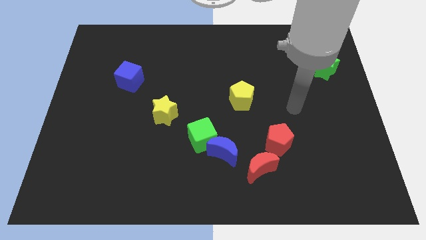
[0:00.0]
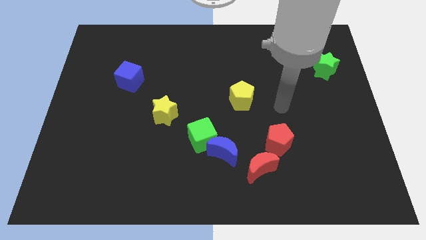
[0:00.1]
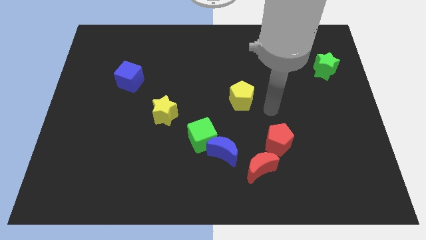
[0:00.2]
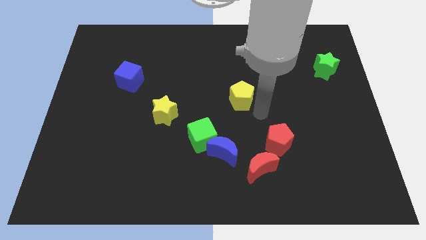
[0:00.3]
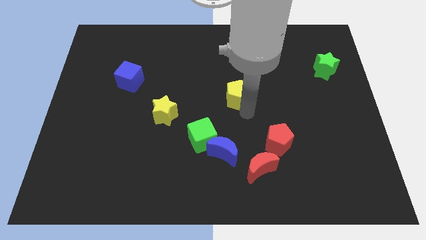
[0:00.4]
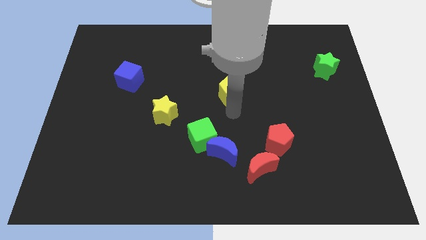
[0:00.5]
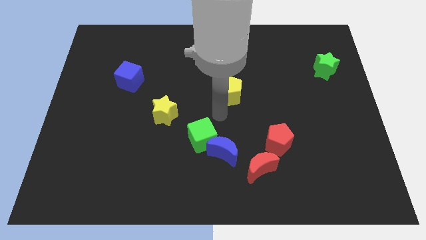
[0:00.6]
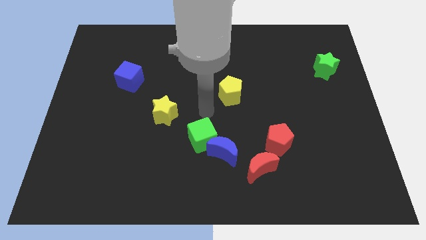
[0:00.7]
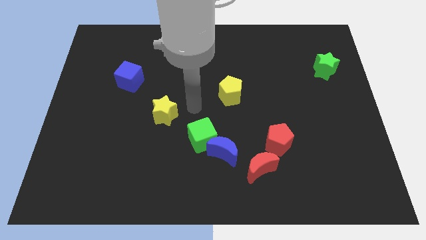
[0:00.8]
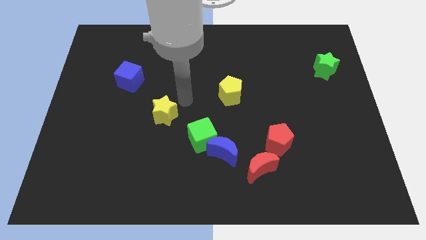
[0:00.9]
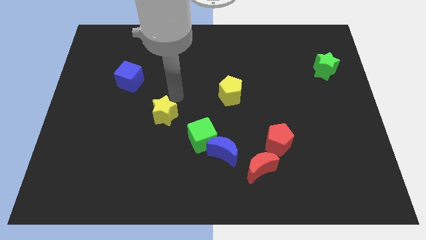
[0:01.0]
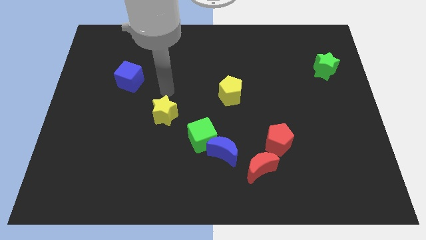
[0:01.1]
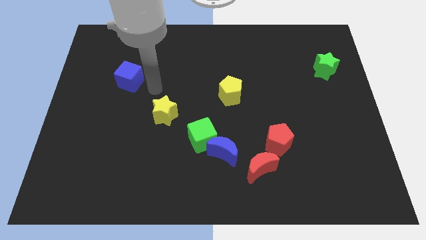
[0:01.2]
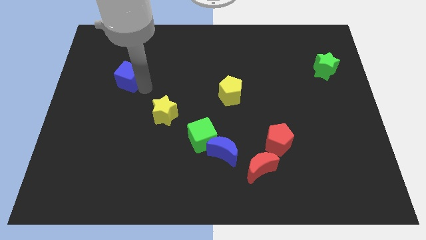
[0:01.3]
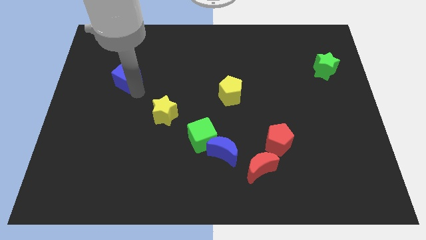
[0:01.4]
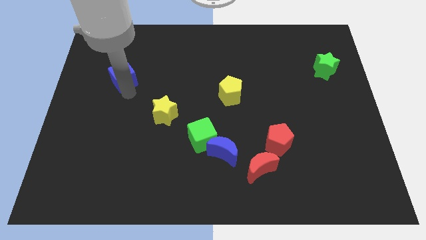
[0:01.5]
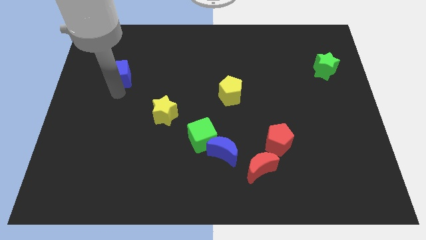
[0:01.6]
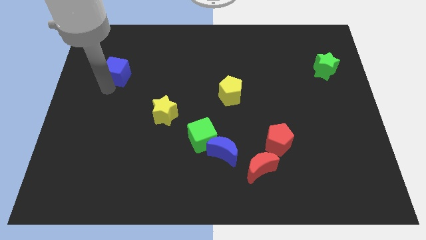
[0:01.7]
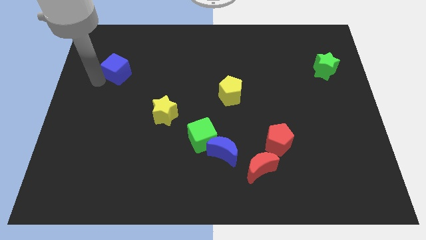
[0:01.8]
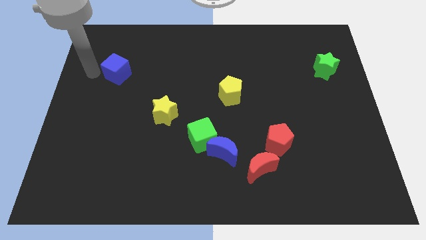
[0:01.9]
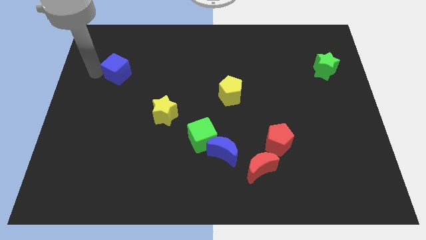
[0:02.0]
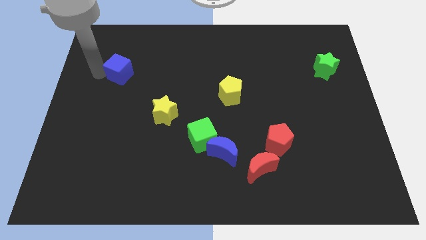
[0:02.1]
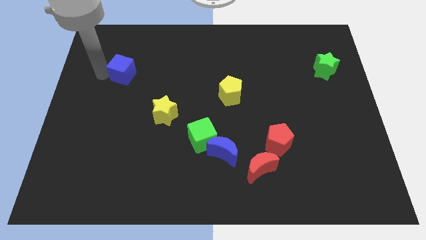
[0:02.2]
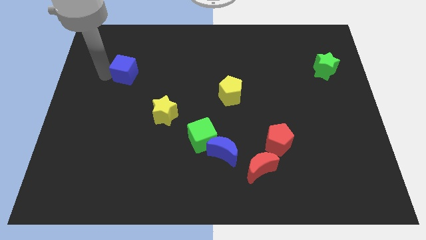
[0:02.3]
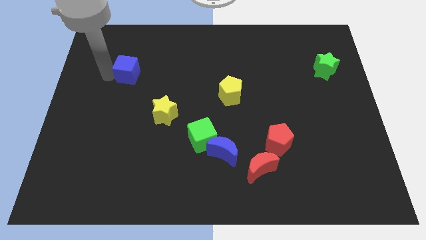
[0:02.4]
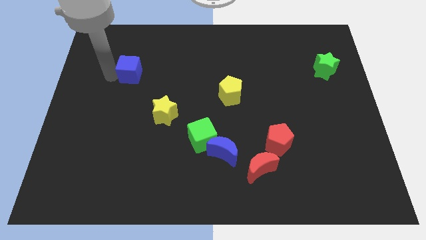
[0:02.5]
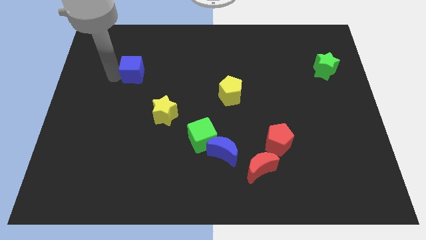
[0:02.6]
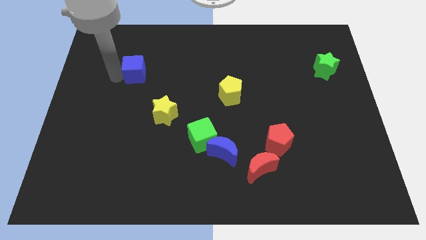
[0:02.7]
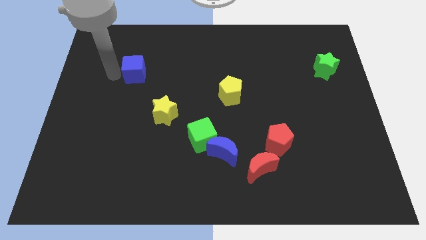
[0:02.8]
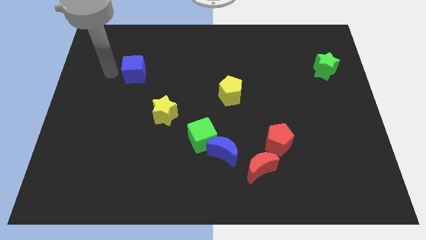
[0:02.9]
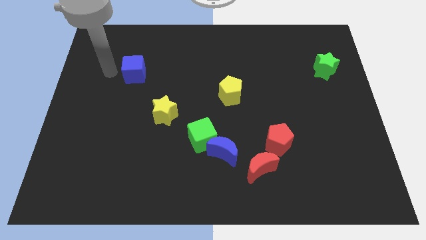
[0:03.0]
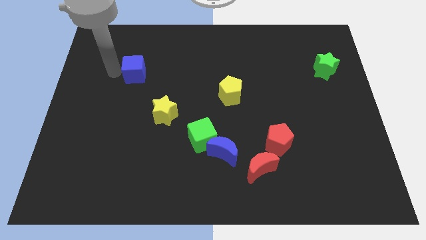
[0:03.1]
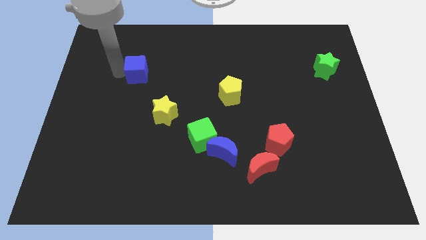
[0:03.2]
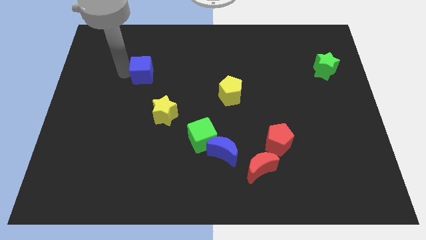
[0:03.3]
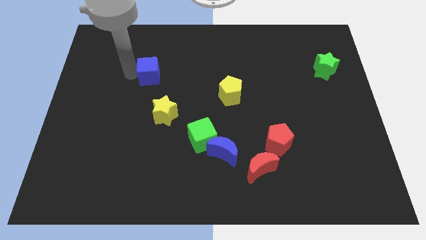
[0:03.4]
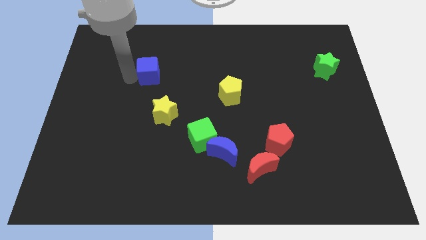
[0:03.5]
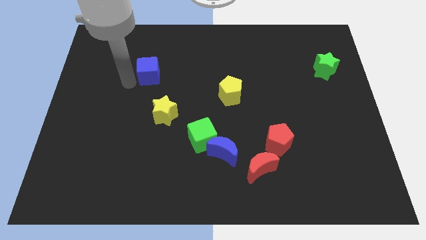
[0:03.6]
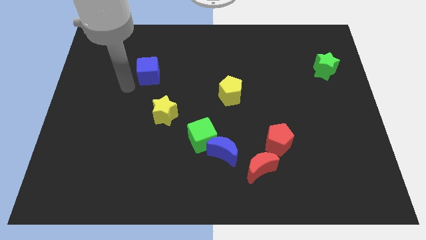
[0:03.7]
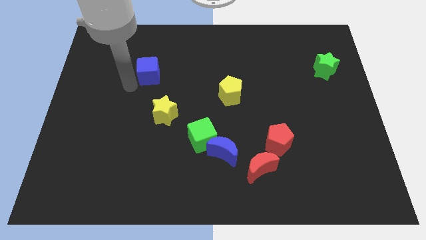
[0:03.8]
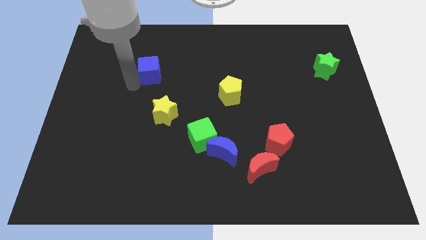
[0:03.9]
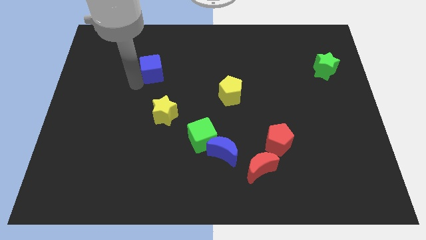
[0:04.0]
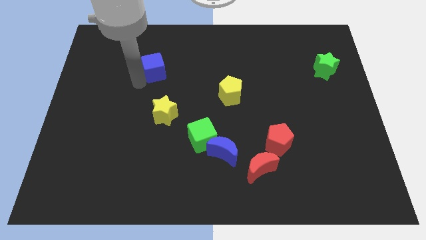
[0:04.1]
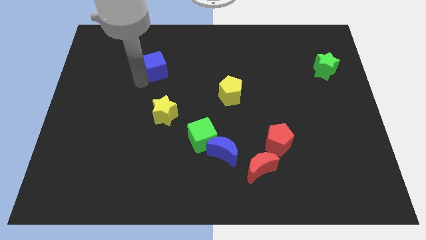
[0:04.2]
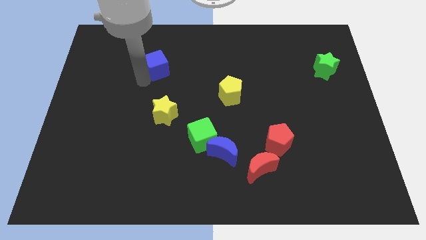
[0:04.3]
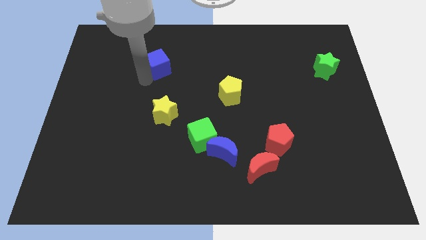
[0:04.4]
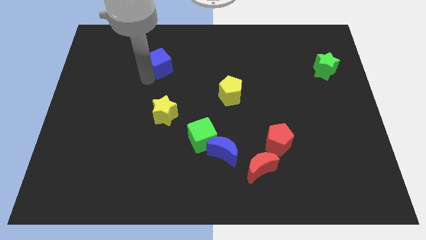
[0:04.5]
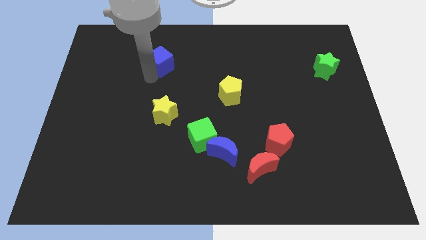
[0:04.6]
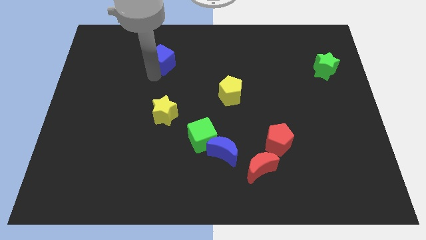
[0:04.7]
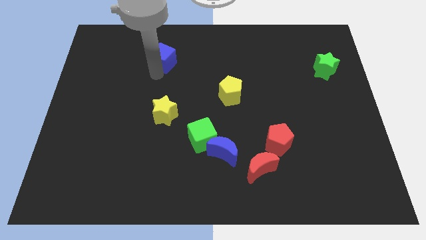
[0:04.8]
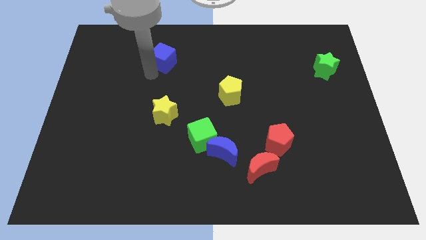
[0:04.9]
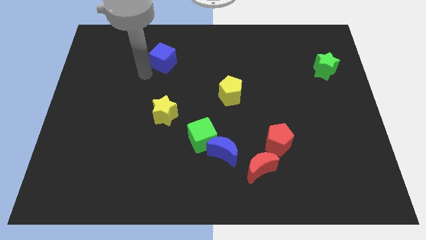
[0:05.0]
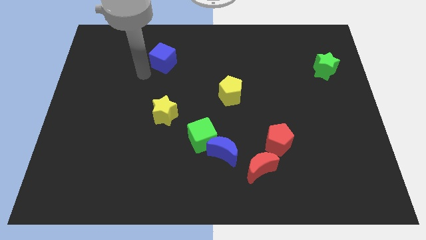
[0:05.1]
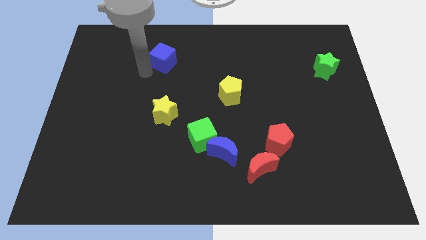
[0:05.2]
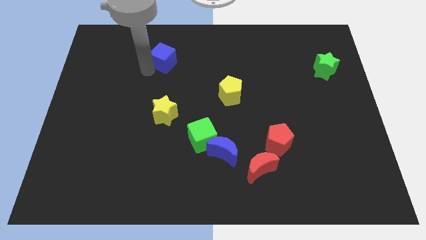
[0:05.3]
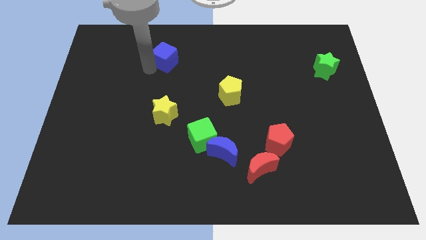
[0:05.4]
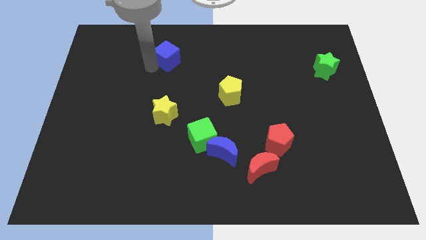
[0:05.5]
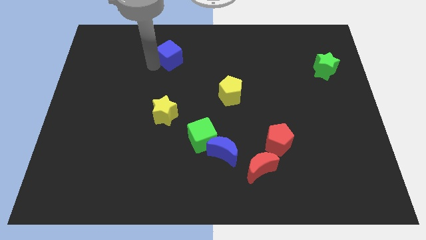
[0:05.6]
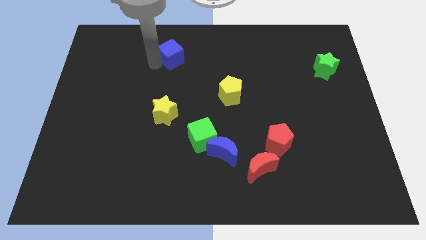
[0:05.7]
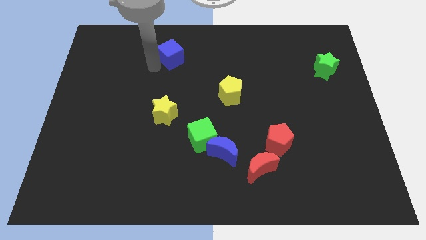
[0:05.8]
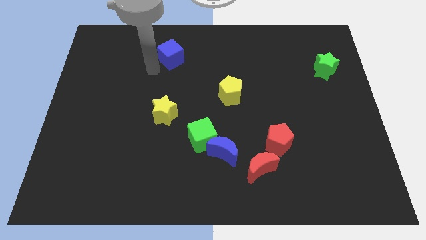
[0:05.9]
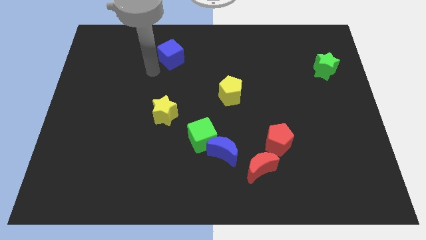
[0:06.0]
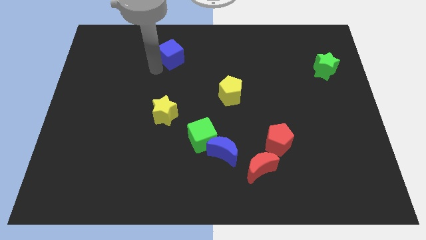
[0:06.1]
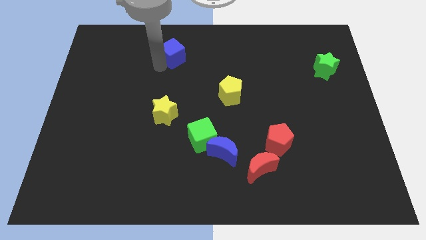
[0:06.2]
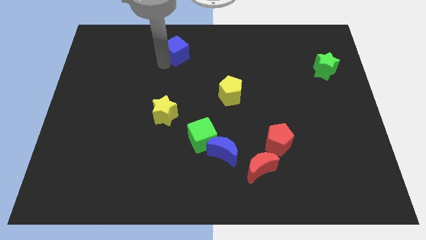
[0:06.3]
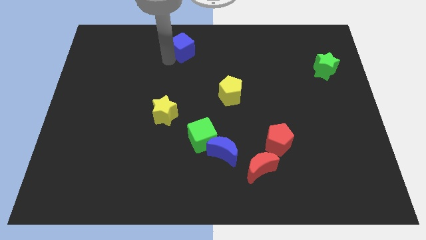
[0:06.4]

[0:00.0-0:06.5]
move the blue cube to the top

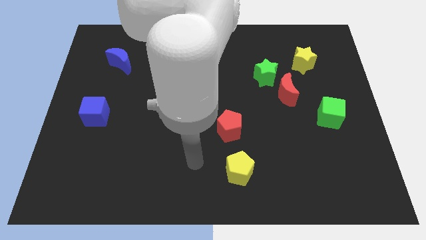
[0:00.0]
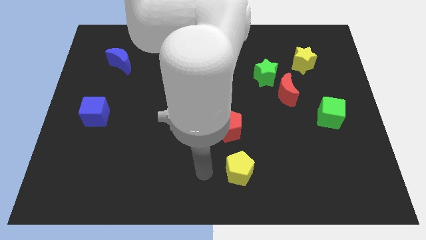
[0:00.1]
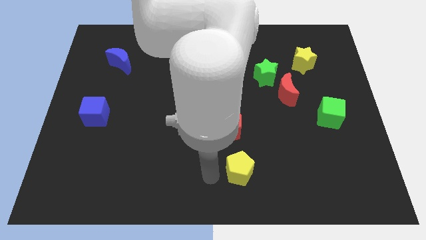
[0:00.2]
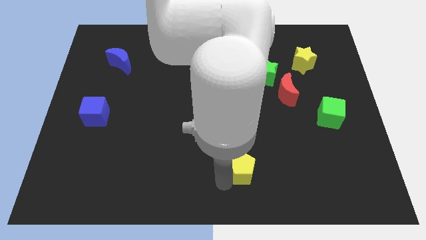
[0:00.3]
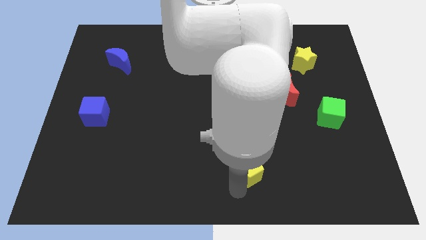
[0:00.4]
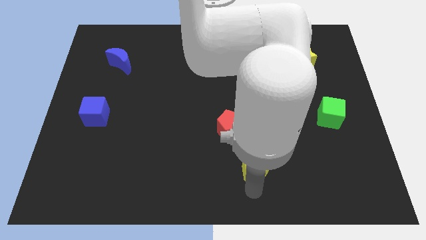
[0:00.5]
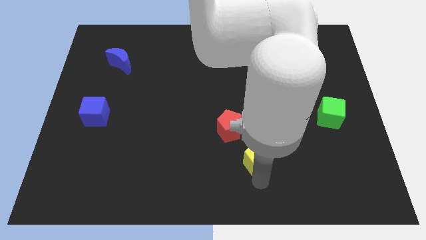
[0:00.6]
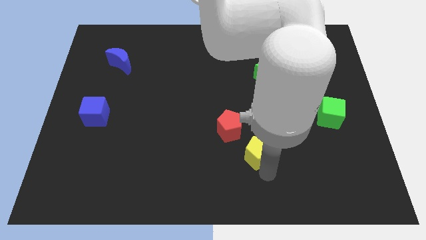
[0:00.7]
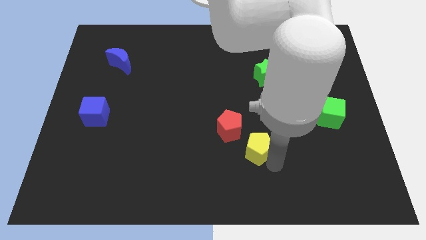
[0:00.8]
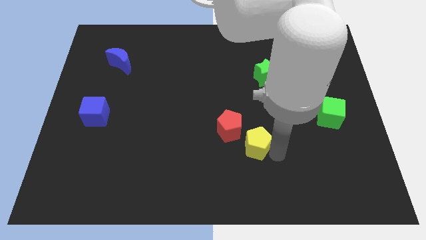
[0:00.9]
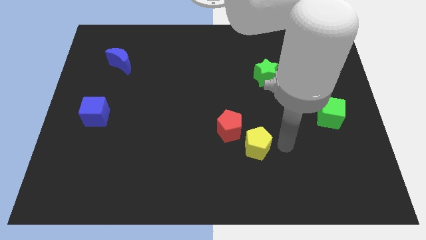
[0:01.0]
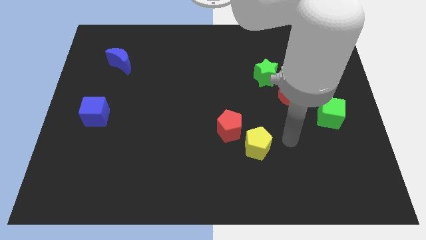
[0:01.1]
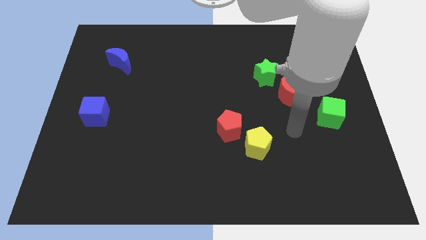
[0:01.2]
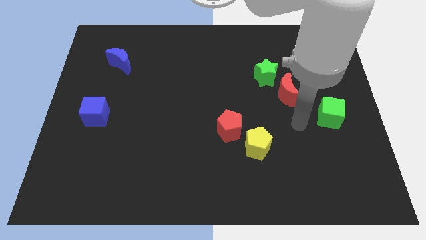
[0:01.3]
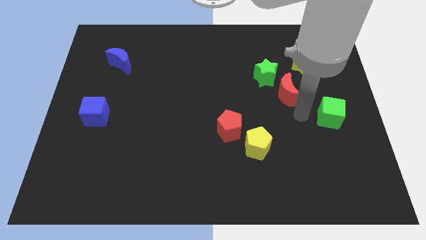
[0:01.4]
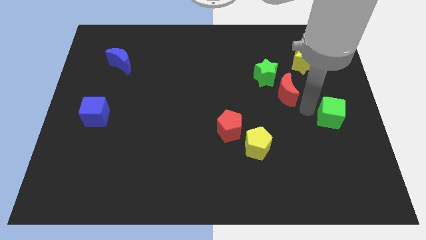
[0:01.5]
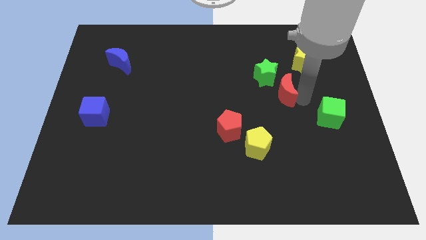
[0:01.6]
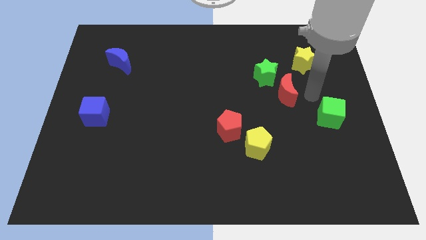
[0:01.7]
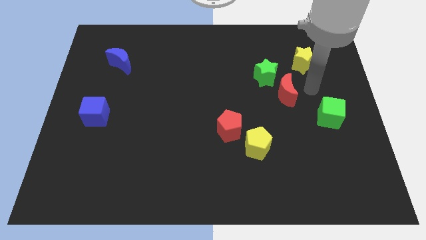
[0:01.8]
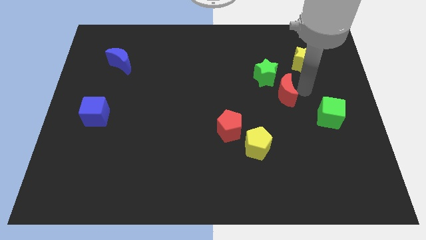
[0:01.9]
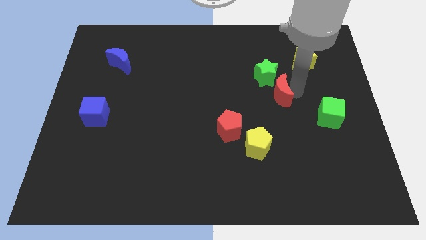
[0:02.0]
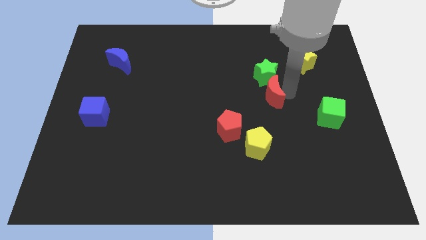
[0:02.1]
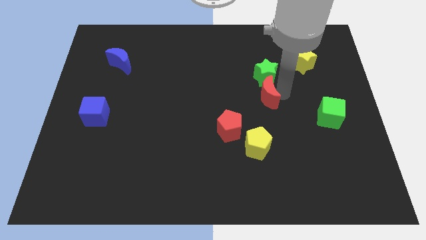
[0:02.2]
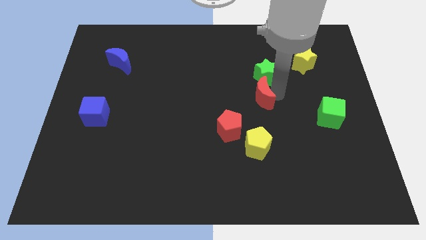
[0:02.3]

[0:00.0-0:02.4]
slide the red moon to the middle of the board
